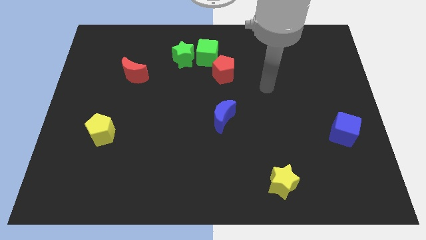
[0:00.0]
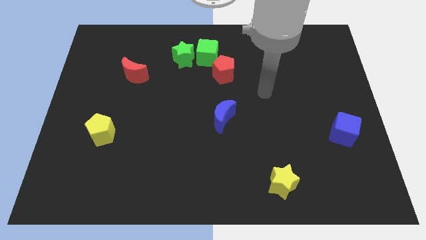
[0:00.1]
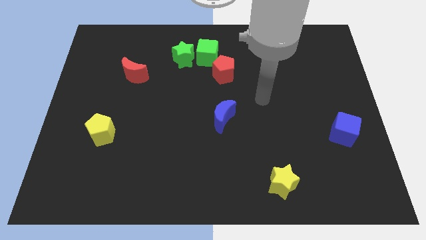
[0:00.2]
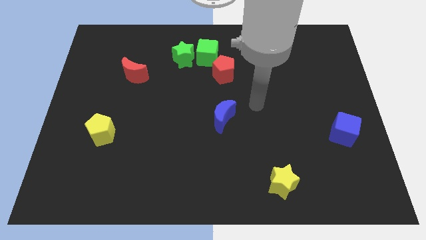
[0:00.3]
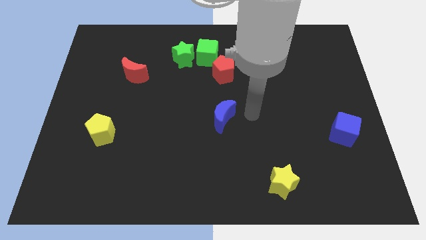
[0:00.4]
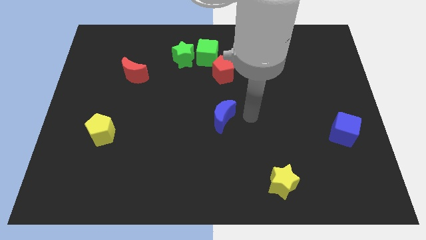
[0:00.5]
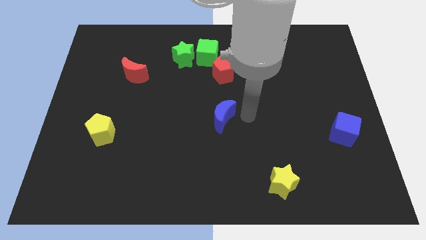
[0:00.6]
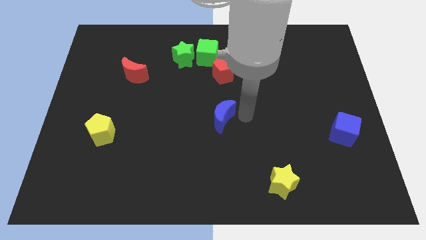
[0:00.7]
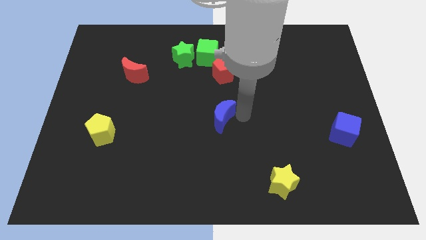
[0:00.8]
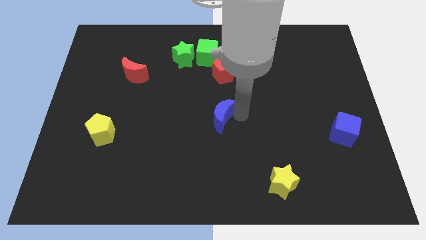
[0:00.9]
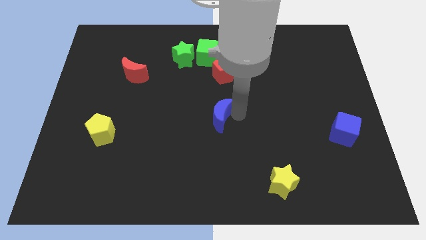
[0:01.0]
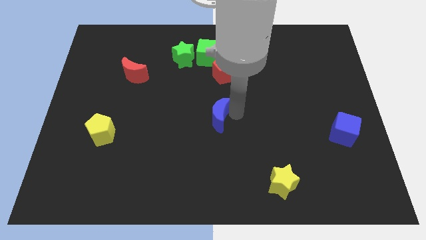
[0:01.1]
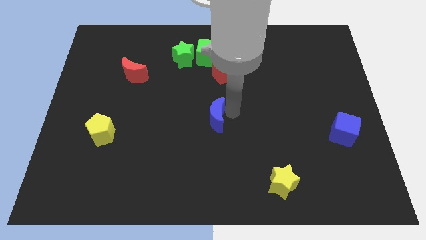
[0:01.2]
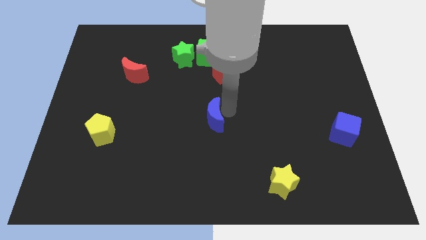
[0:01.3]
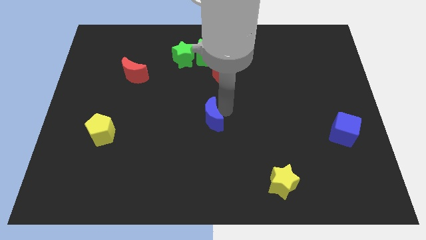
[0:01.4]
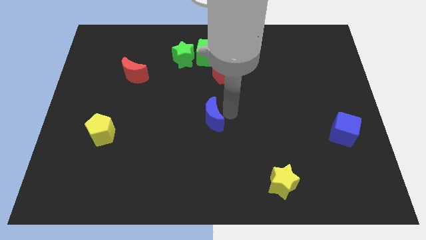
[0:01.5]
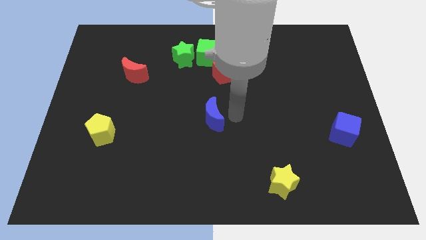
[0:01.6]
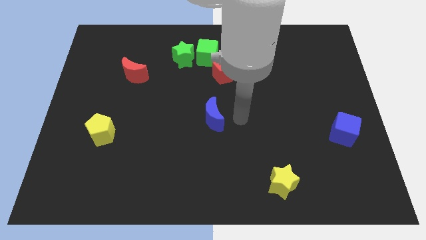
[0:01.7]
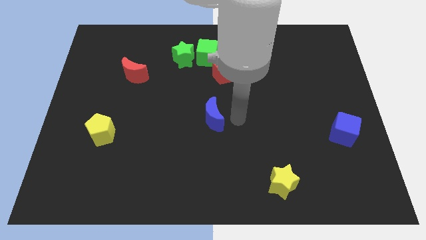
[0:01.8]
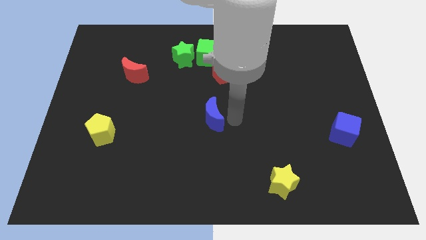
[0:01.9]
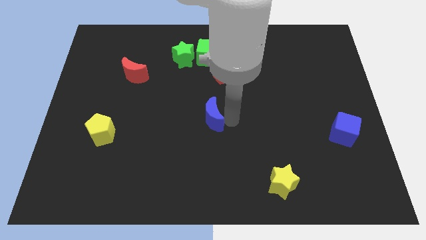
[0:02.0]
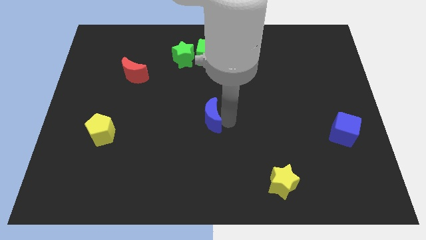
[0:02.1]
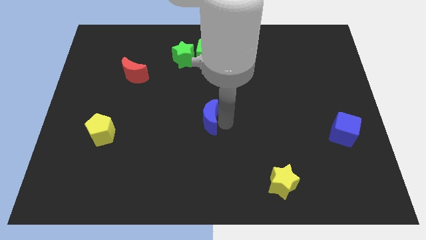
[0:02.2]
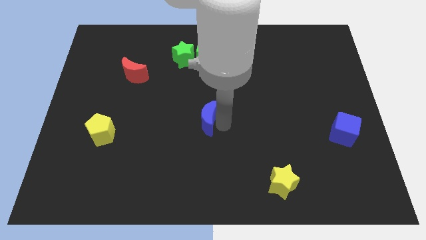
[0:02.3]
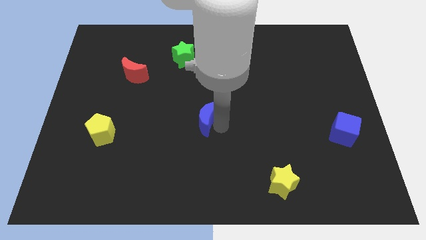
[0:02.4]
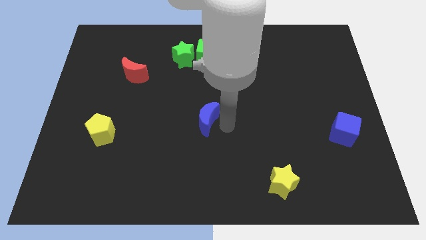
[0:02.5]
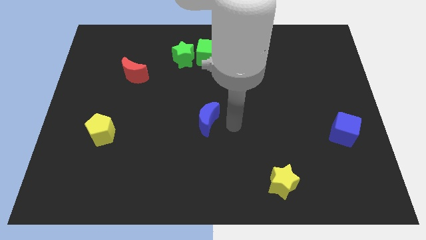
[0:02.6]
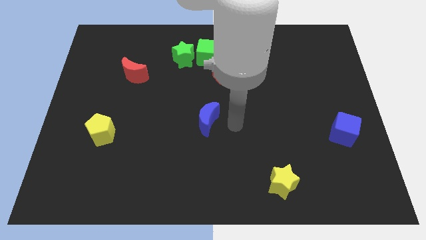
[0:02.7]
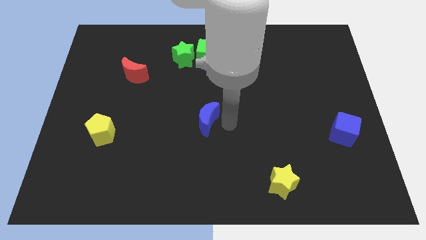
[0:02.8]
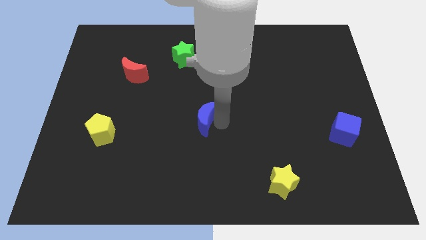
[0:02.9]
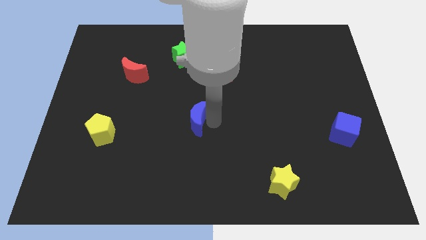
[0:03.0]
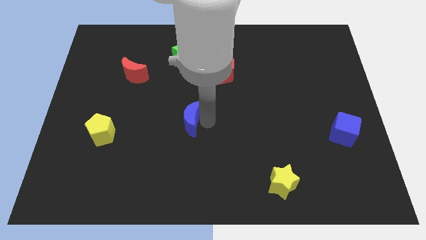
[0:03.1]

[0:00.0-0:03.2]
slide the blue moon left slightly

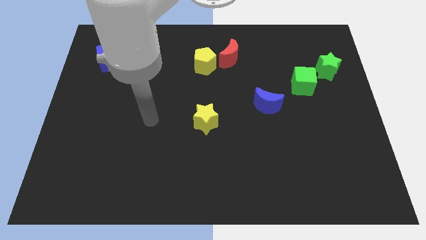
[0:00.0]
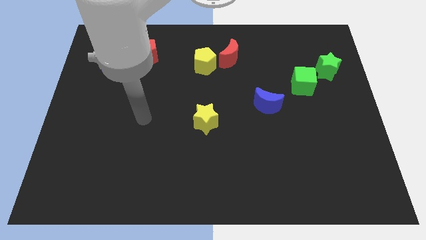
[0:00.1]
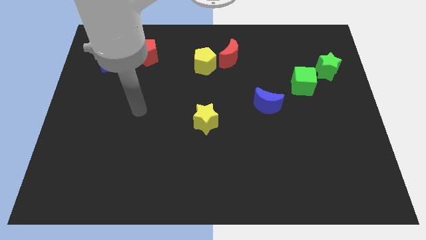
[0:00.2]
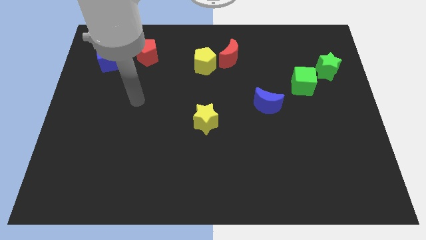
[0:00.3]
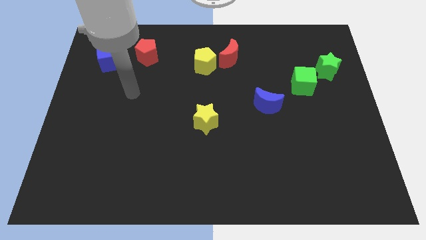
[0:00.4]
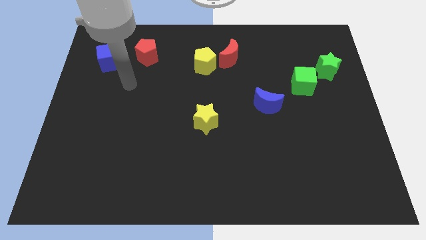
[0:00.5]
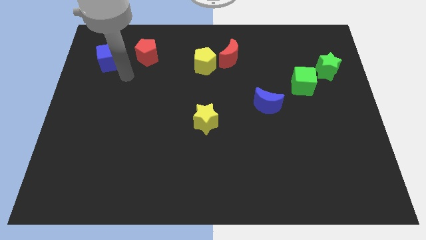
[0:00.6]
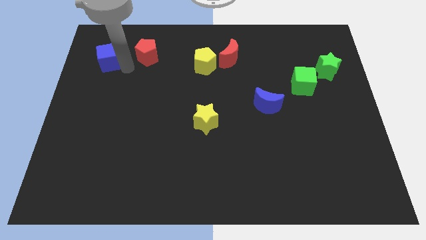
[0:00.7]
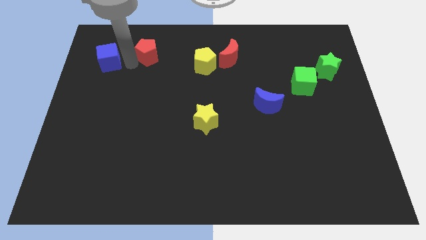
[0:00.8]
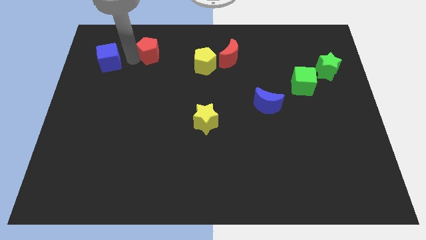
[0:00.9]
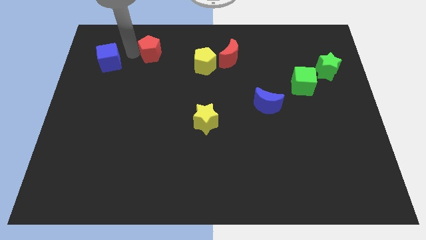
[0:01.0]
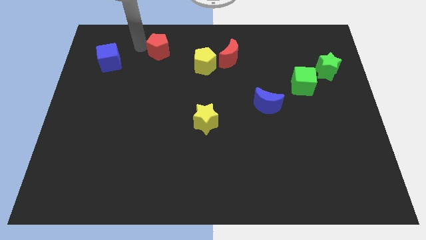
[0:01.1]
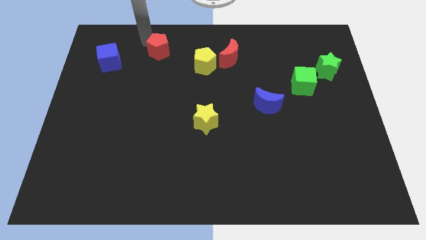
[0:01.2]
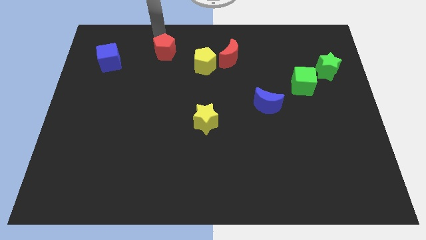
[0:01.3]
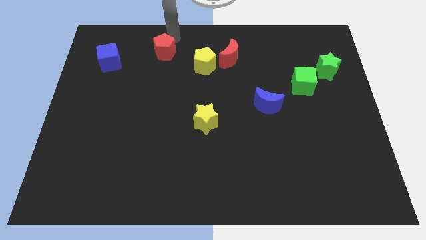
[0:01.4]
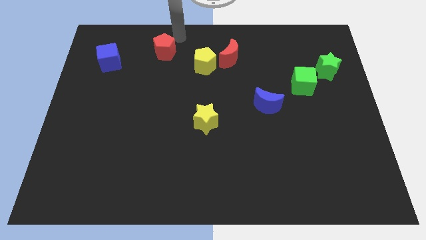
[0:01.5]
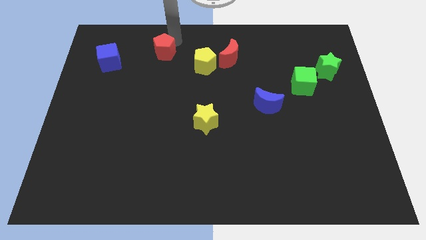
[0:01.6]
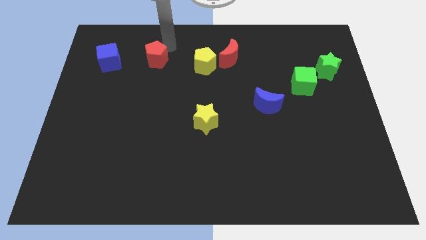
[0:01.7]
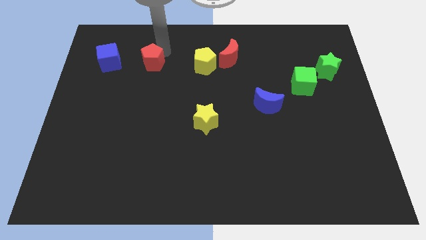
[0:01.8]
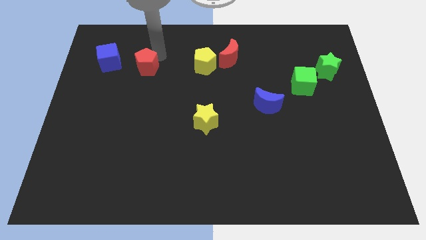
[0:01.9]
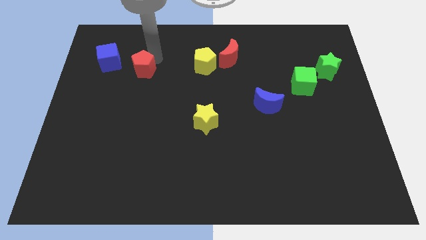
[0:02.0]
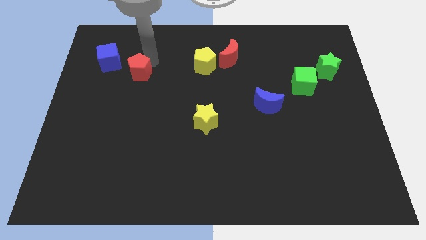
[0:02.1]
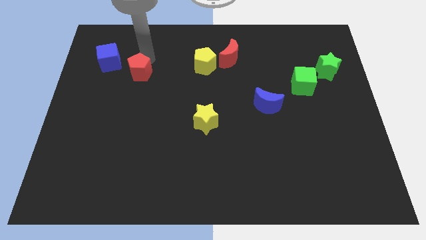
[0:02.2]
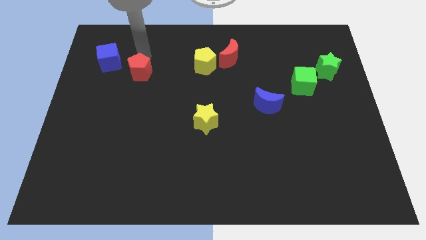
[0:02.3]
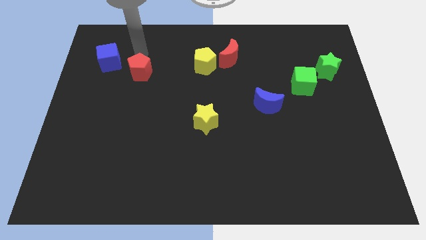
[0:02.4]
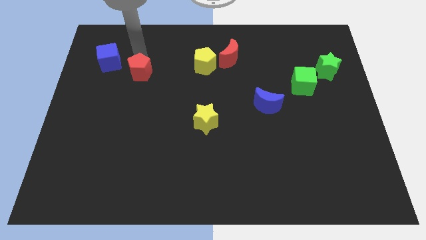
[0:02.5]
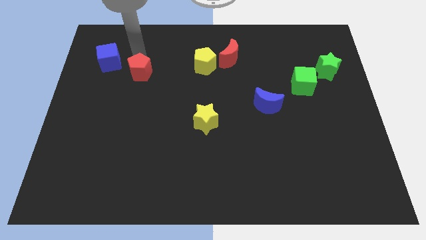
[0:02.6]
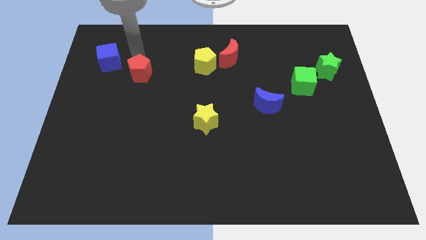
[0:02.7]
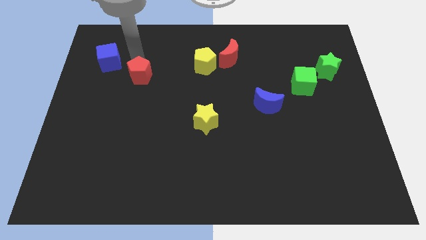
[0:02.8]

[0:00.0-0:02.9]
slightly push the red pentagon down

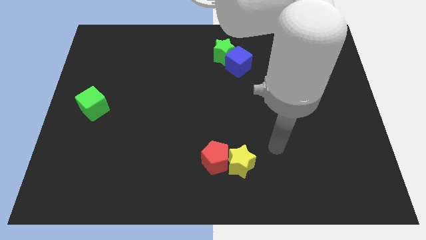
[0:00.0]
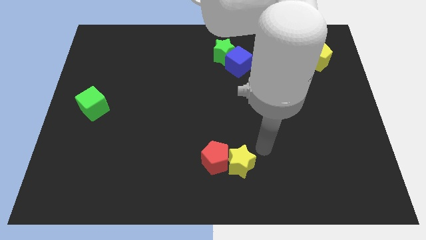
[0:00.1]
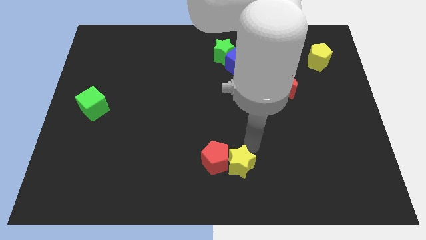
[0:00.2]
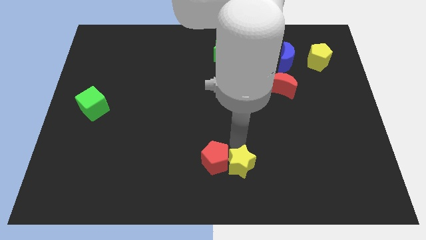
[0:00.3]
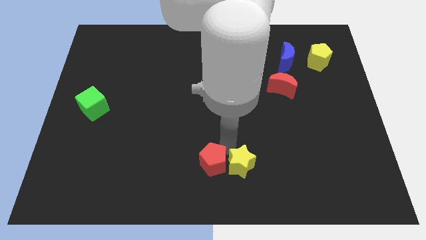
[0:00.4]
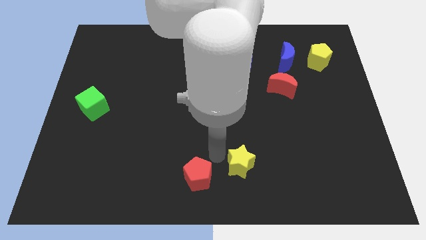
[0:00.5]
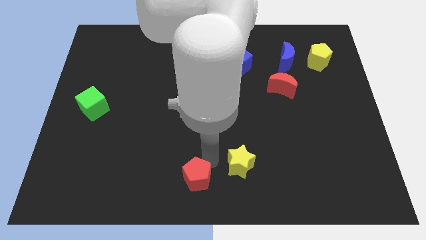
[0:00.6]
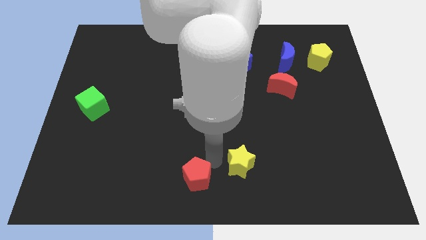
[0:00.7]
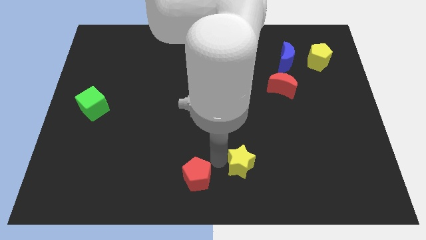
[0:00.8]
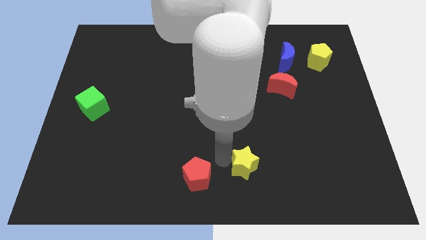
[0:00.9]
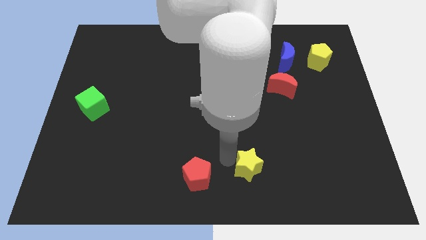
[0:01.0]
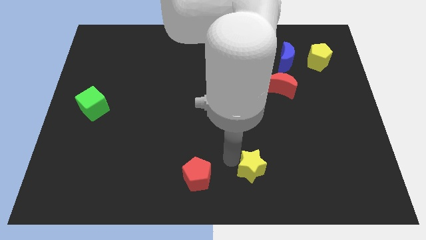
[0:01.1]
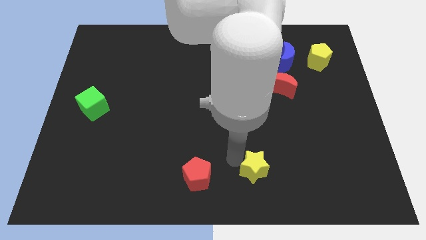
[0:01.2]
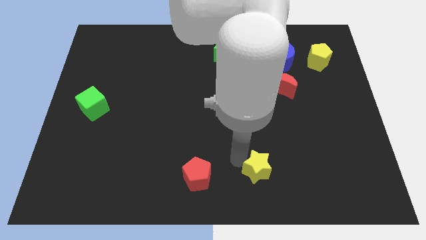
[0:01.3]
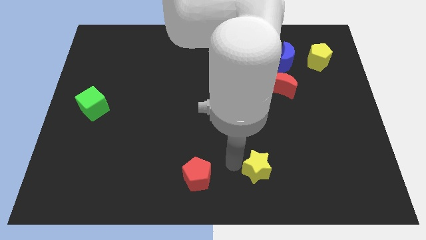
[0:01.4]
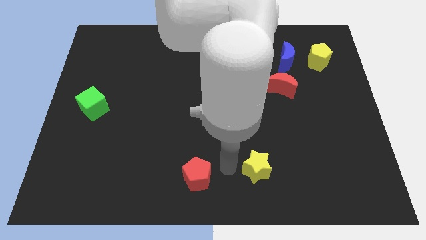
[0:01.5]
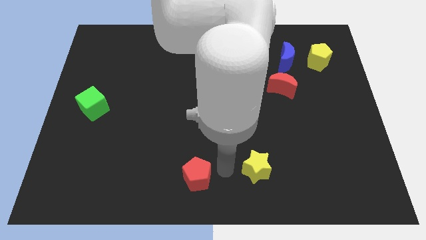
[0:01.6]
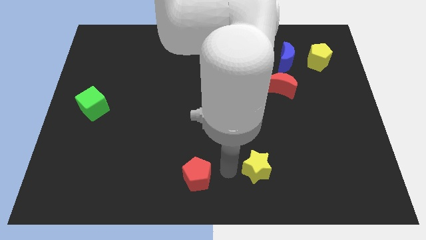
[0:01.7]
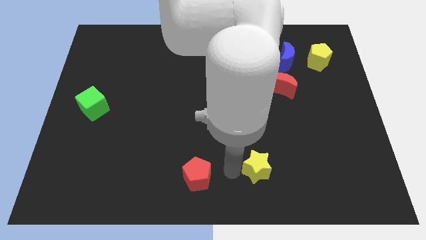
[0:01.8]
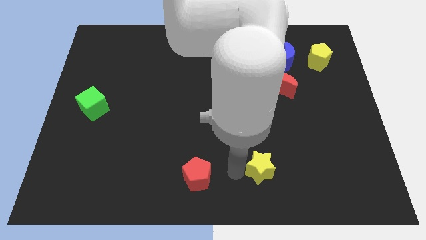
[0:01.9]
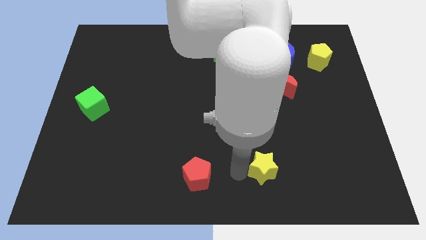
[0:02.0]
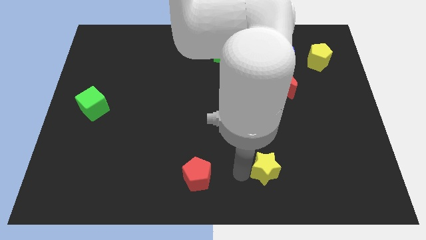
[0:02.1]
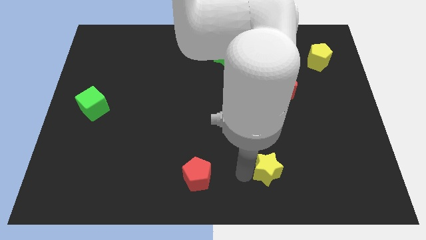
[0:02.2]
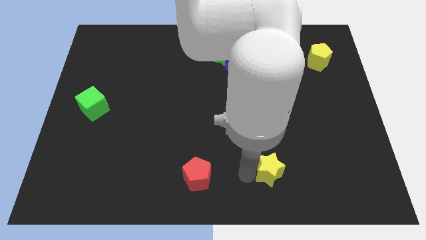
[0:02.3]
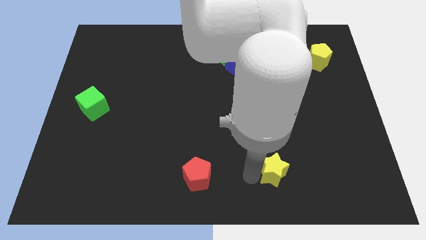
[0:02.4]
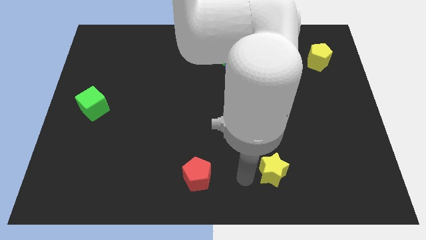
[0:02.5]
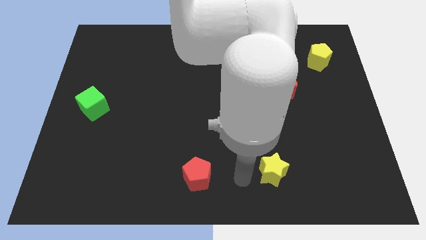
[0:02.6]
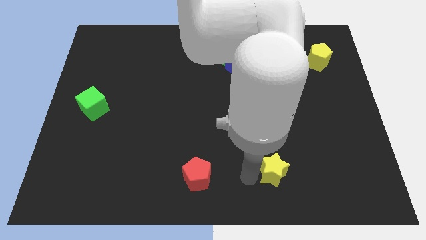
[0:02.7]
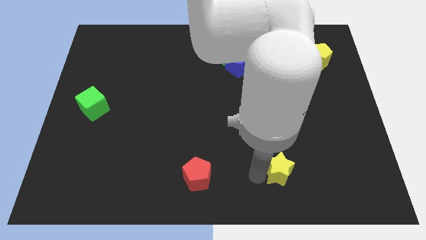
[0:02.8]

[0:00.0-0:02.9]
slightly slide the yellow star right
